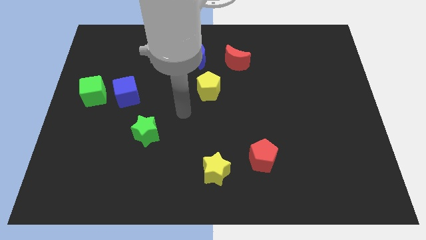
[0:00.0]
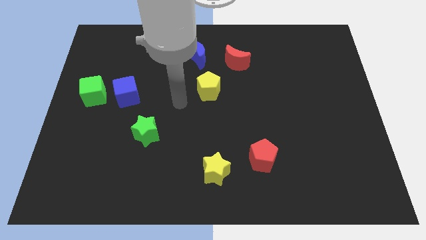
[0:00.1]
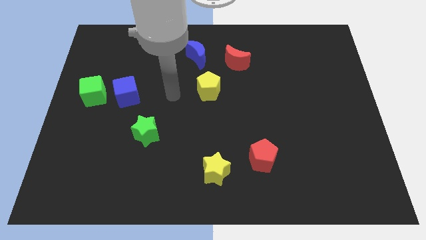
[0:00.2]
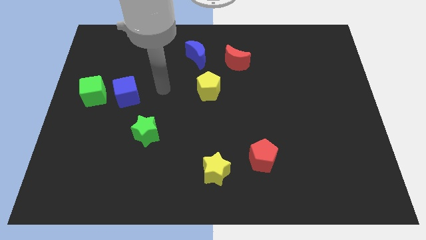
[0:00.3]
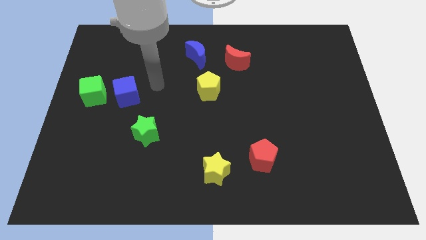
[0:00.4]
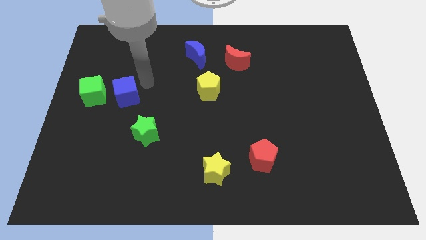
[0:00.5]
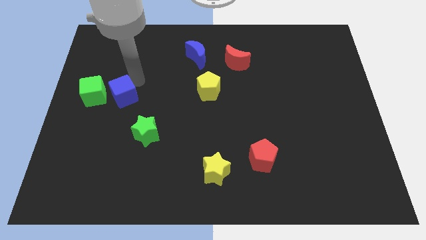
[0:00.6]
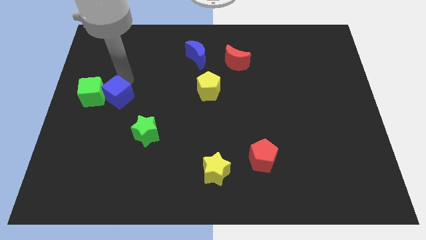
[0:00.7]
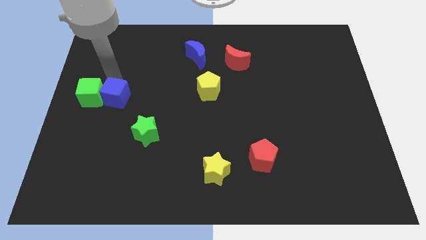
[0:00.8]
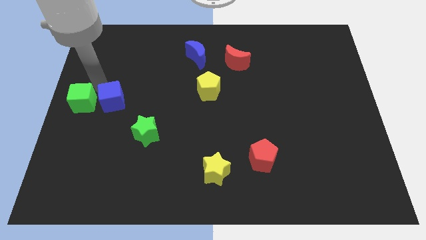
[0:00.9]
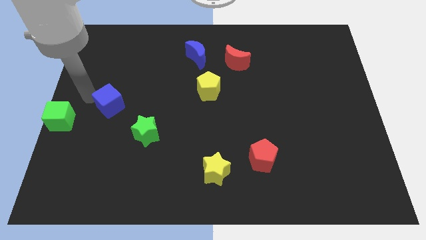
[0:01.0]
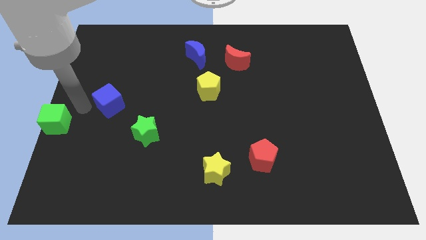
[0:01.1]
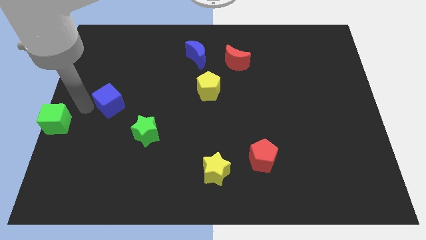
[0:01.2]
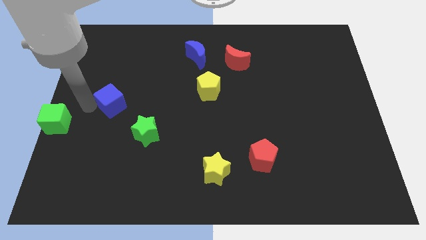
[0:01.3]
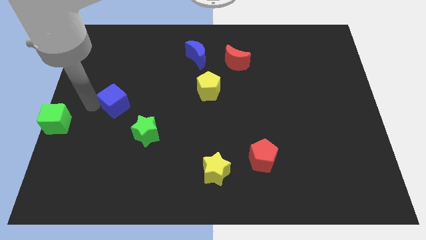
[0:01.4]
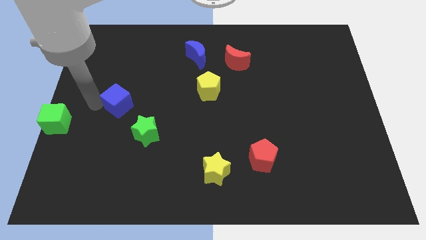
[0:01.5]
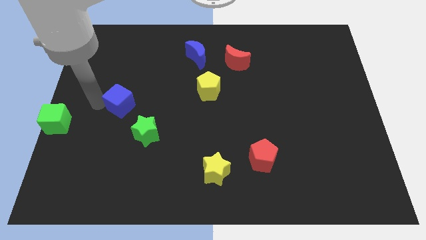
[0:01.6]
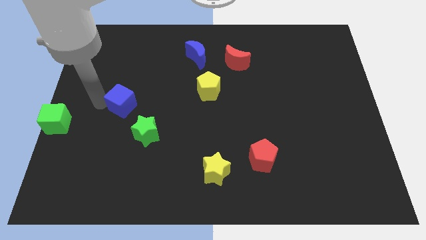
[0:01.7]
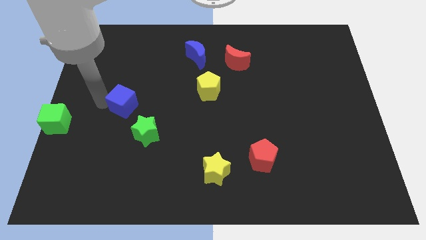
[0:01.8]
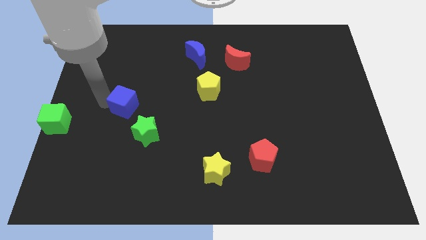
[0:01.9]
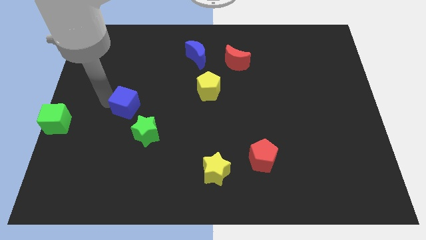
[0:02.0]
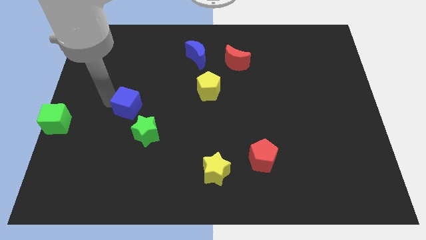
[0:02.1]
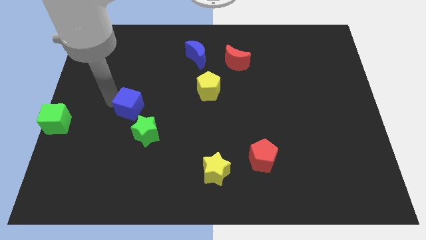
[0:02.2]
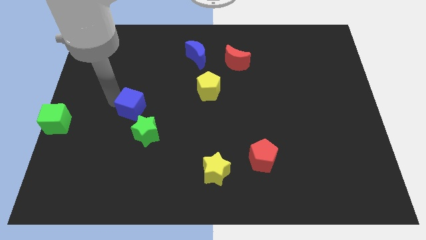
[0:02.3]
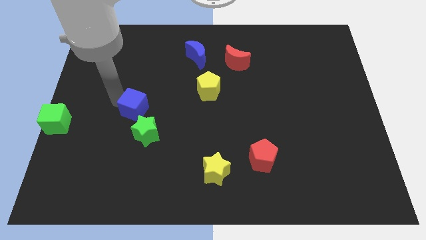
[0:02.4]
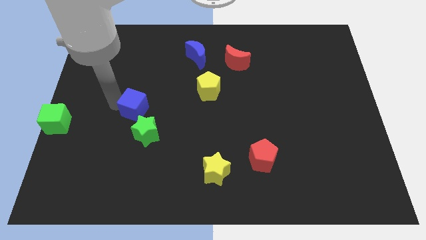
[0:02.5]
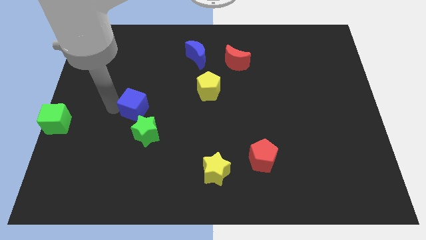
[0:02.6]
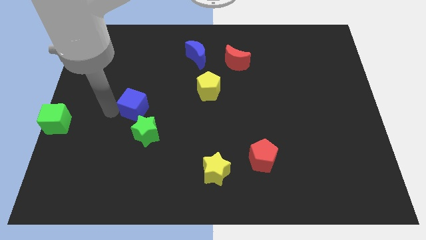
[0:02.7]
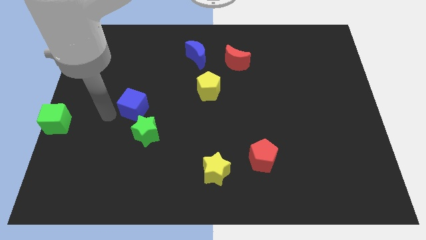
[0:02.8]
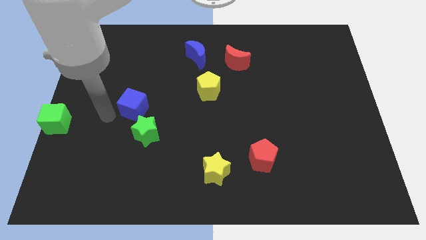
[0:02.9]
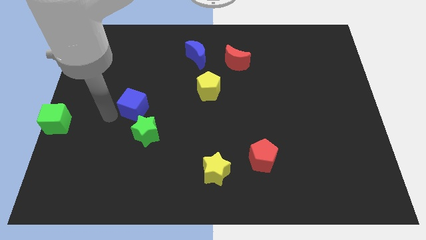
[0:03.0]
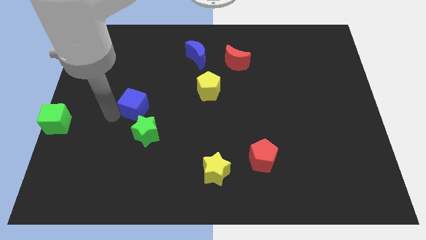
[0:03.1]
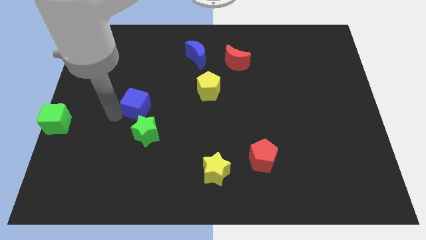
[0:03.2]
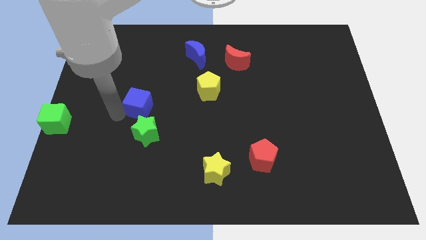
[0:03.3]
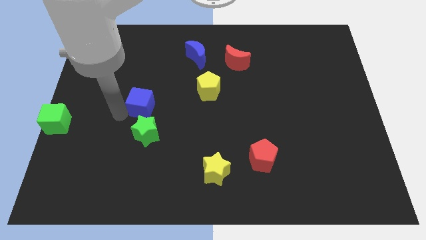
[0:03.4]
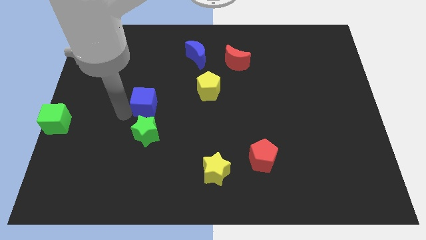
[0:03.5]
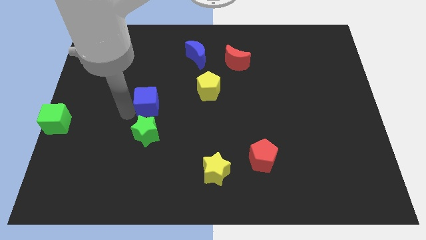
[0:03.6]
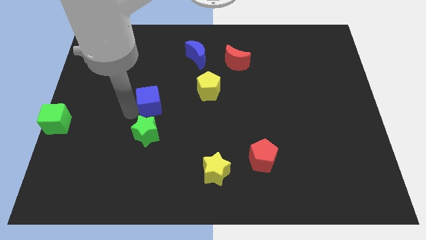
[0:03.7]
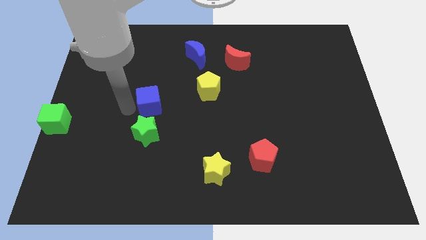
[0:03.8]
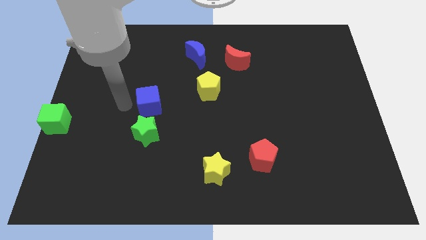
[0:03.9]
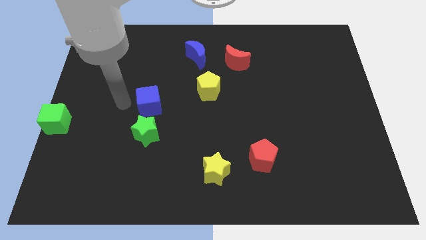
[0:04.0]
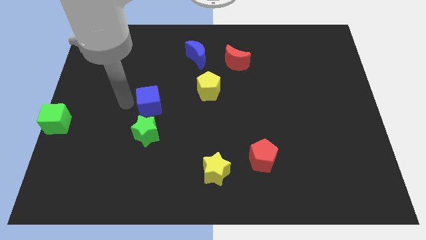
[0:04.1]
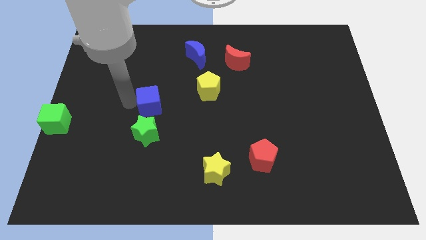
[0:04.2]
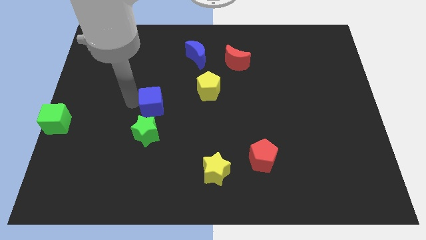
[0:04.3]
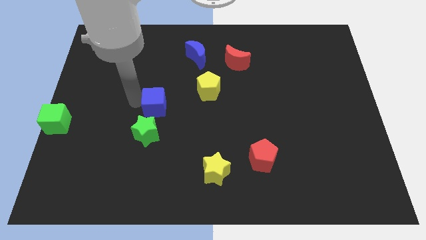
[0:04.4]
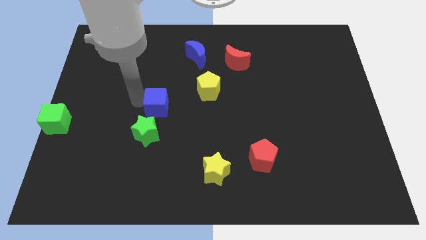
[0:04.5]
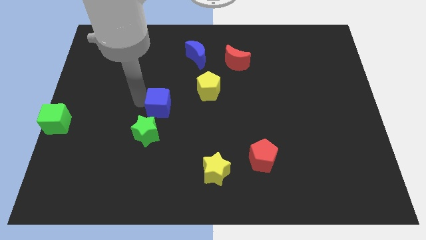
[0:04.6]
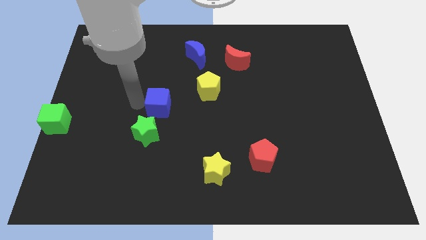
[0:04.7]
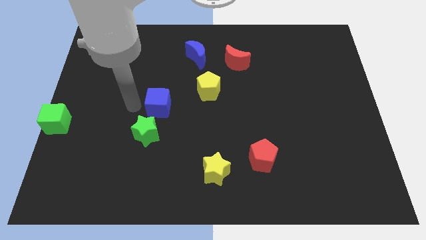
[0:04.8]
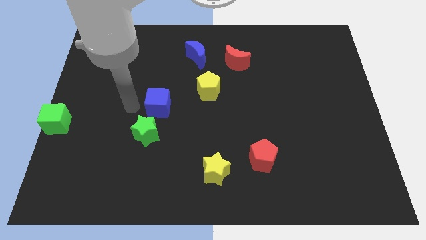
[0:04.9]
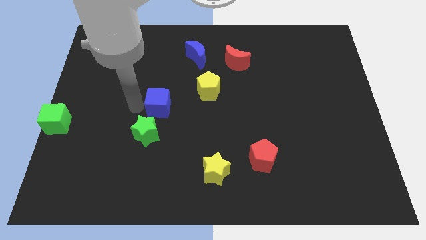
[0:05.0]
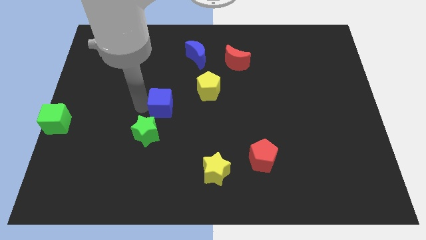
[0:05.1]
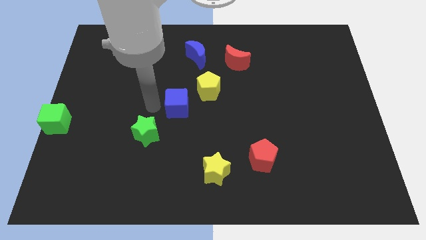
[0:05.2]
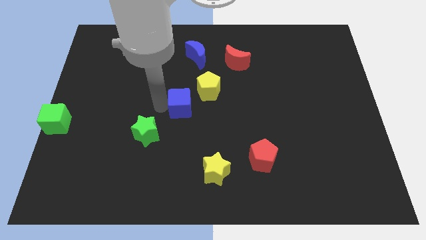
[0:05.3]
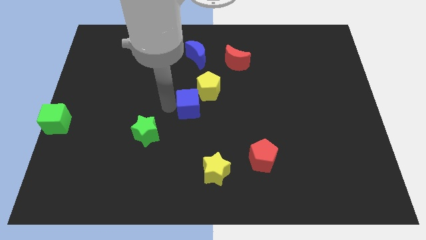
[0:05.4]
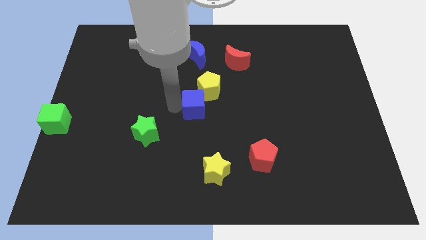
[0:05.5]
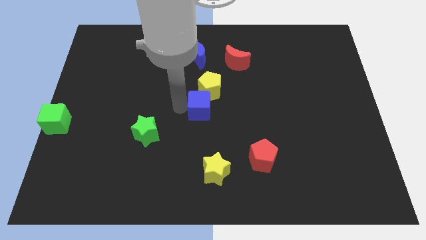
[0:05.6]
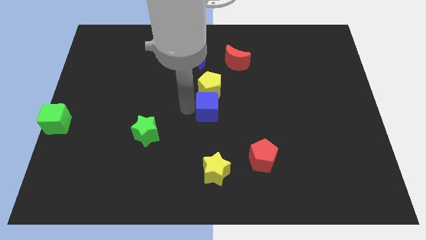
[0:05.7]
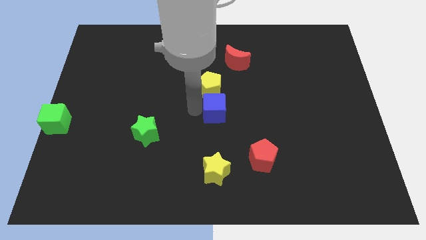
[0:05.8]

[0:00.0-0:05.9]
push the blue cube right

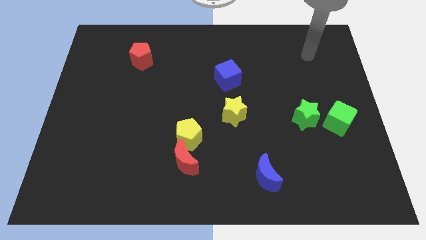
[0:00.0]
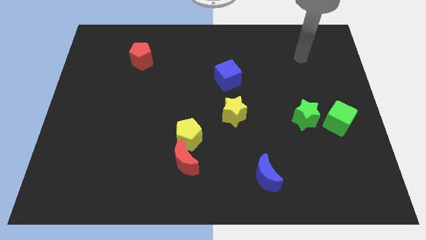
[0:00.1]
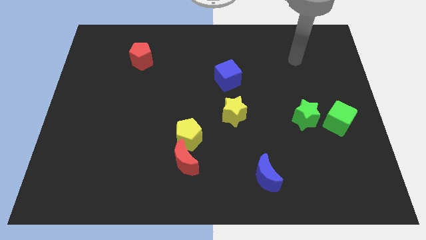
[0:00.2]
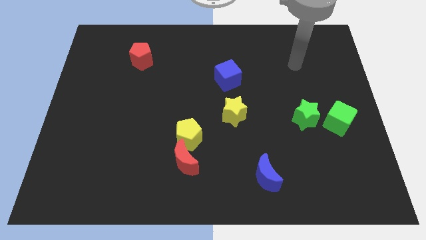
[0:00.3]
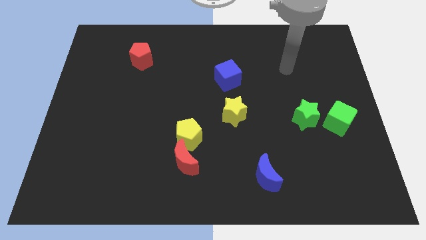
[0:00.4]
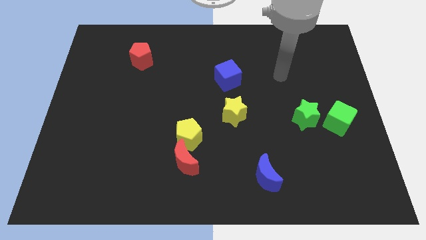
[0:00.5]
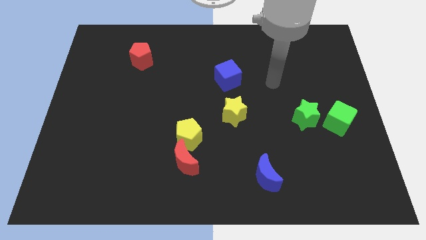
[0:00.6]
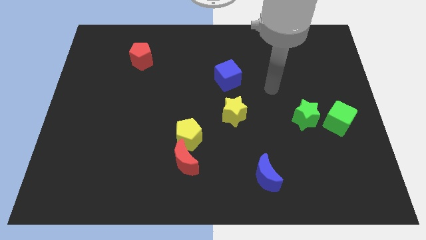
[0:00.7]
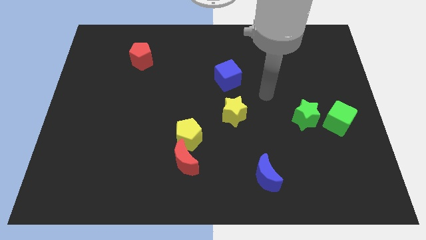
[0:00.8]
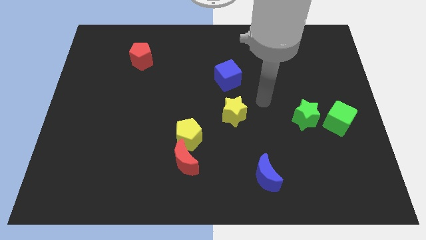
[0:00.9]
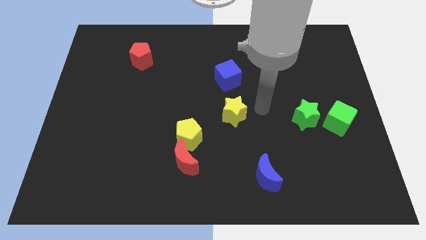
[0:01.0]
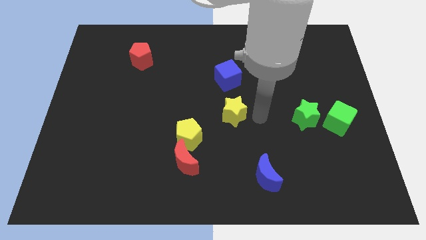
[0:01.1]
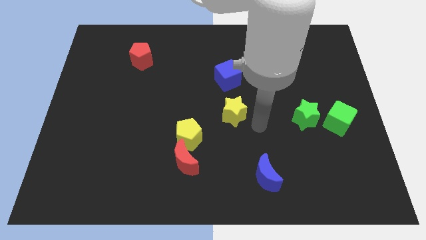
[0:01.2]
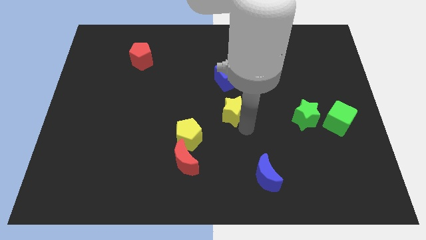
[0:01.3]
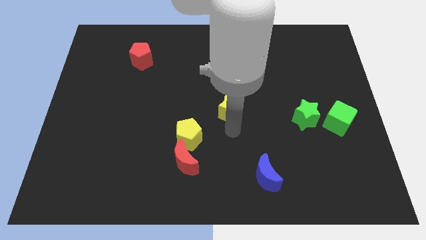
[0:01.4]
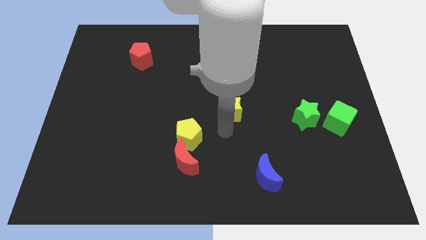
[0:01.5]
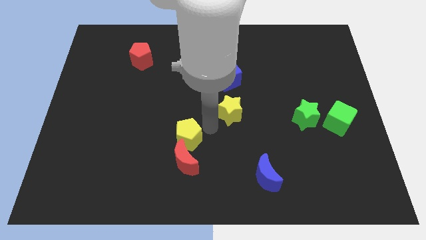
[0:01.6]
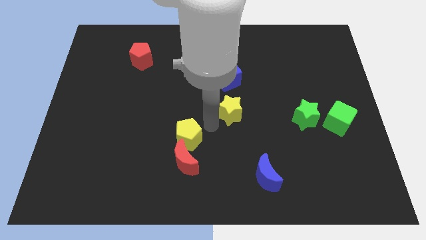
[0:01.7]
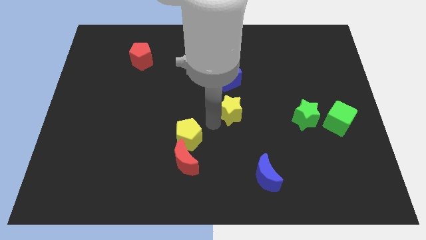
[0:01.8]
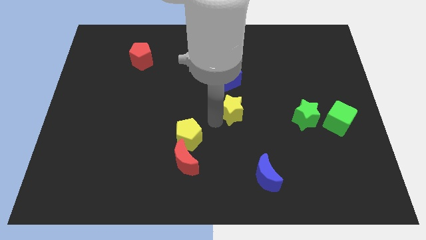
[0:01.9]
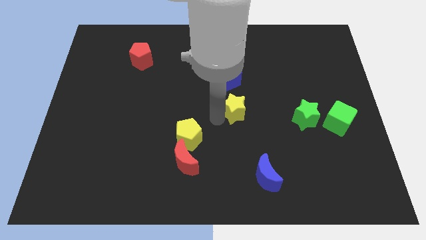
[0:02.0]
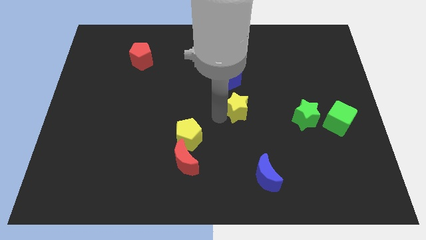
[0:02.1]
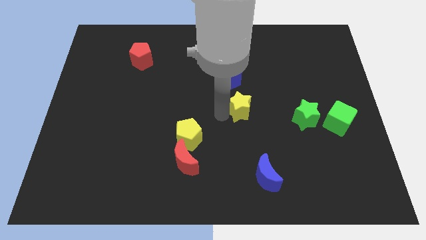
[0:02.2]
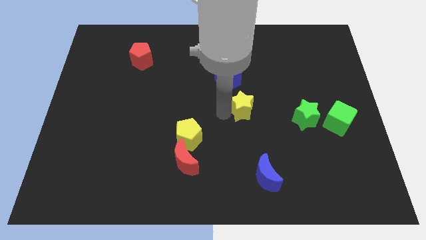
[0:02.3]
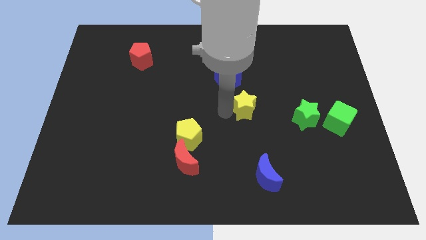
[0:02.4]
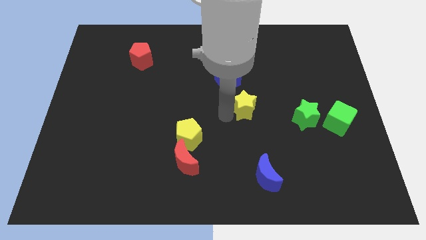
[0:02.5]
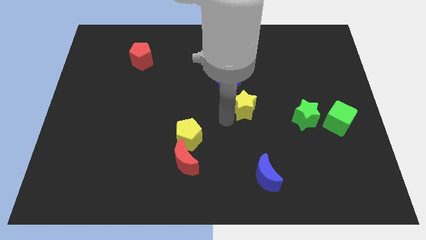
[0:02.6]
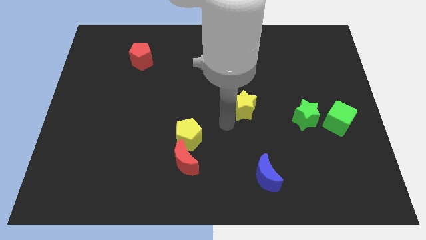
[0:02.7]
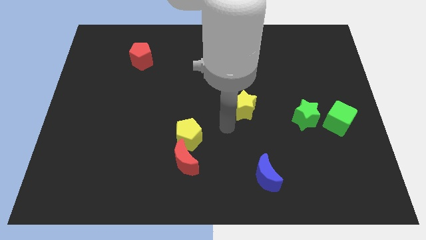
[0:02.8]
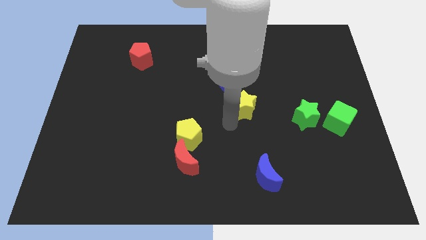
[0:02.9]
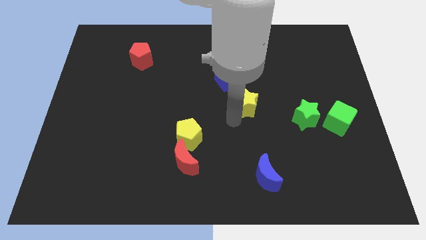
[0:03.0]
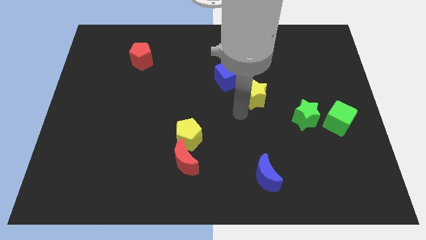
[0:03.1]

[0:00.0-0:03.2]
slightly move the yellow star upwards and right
